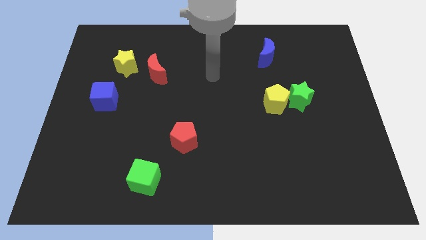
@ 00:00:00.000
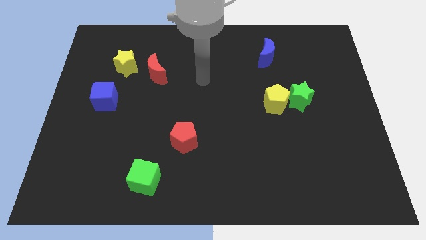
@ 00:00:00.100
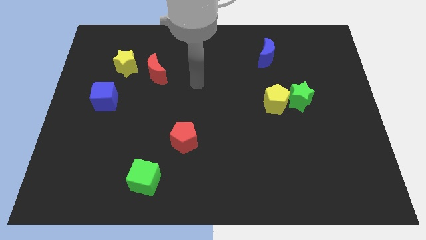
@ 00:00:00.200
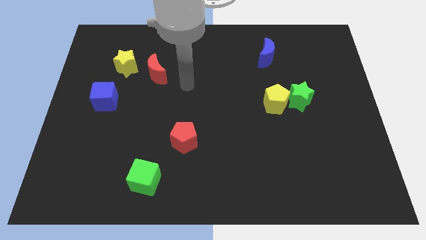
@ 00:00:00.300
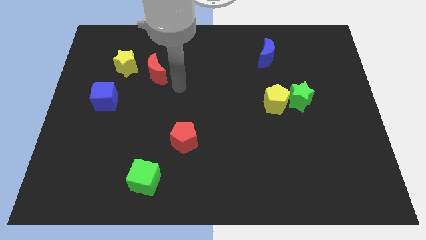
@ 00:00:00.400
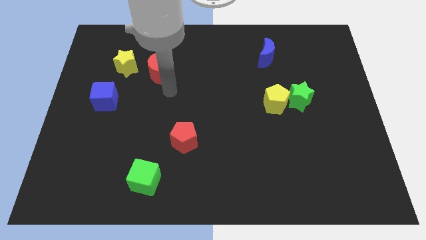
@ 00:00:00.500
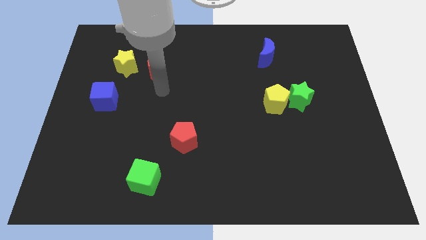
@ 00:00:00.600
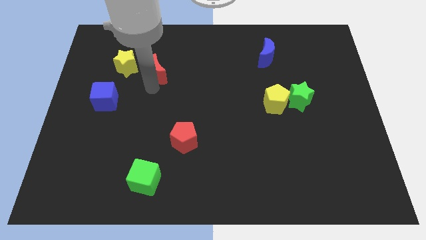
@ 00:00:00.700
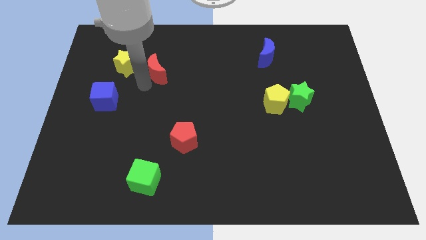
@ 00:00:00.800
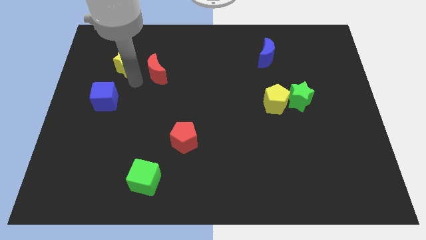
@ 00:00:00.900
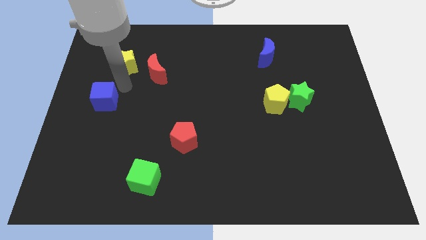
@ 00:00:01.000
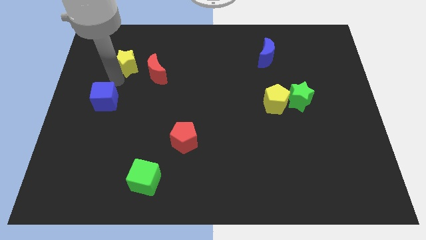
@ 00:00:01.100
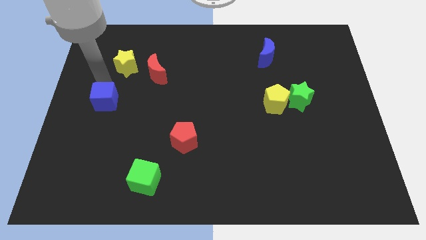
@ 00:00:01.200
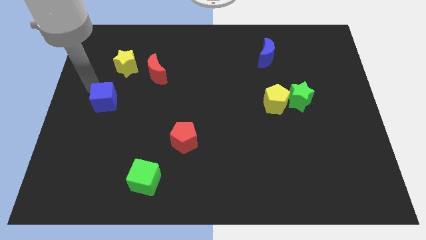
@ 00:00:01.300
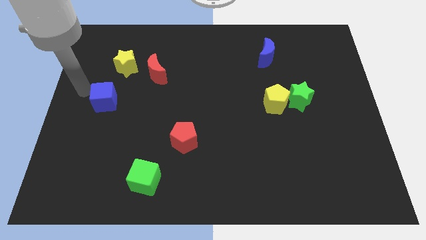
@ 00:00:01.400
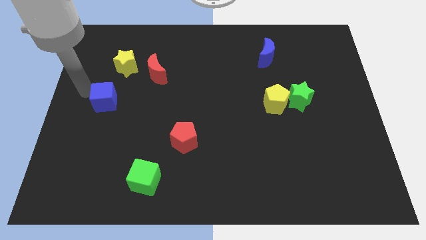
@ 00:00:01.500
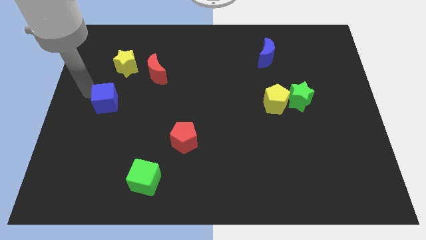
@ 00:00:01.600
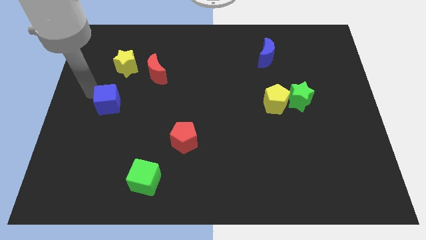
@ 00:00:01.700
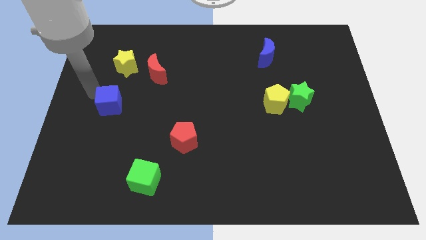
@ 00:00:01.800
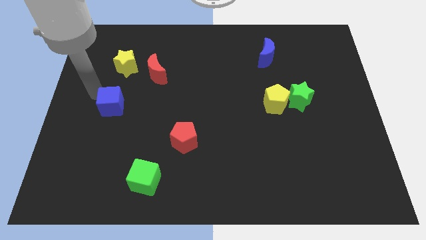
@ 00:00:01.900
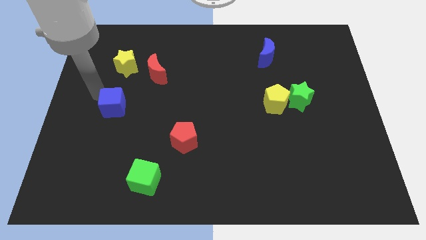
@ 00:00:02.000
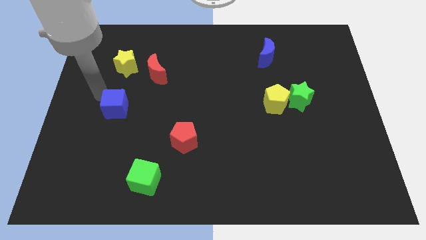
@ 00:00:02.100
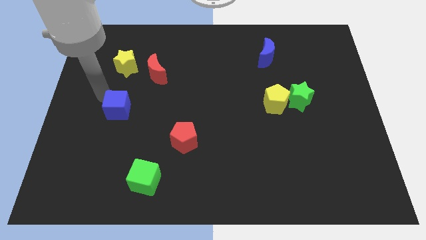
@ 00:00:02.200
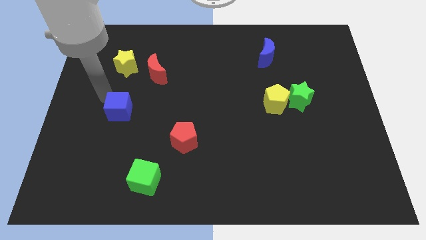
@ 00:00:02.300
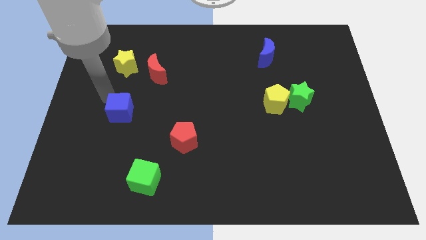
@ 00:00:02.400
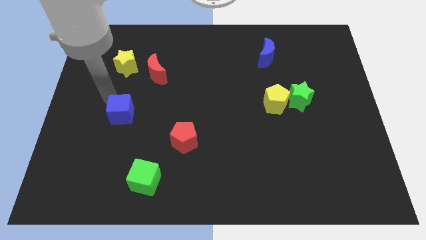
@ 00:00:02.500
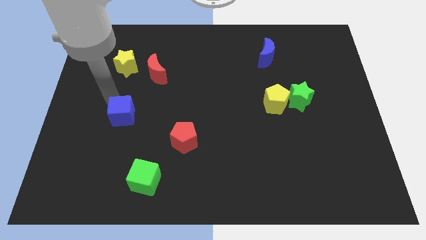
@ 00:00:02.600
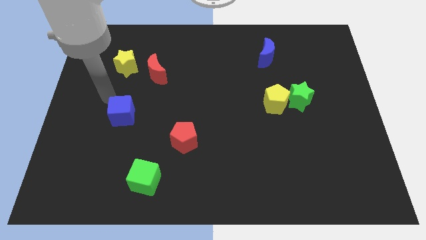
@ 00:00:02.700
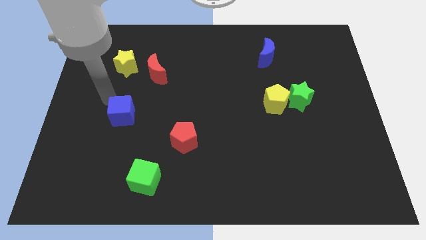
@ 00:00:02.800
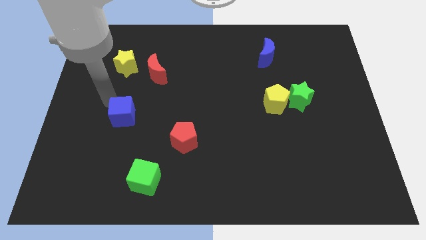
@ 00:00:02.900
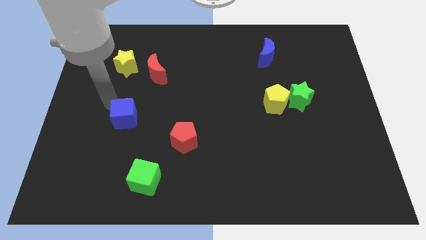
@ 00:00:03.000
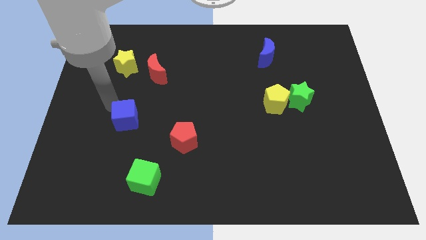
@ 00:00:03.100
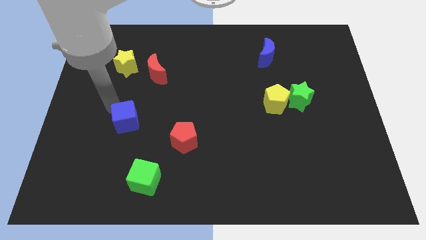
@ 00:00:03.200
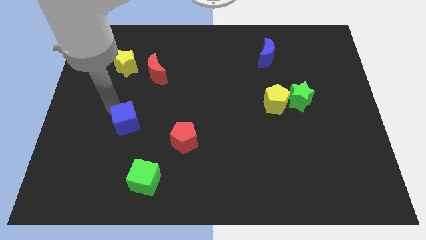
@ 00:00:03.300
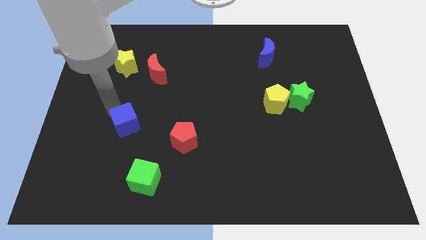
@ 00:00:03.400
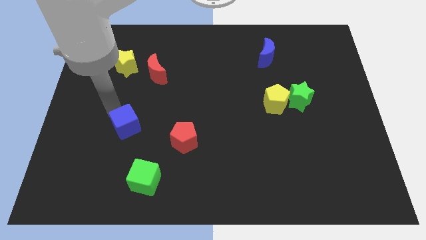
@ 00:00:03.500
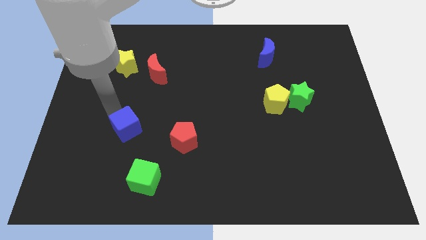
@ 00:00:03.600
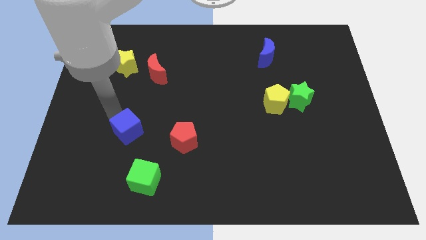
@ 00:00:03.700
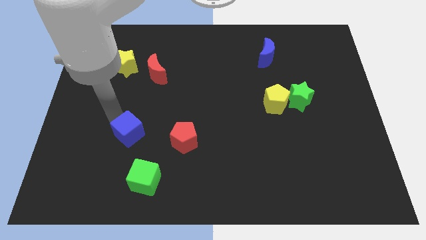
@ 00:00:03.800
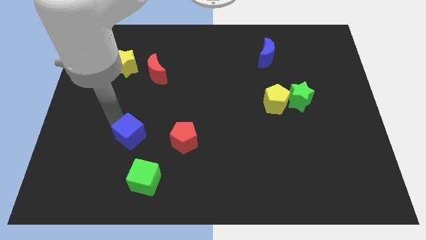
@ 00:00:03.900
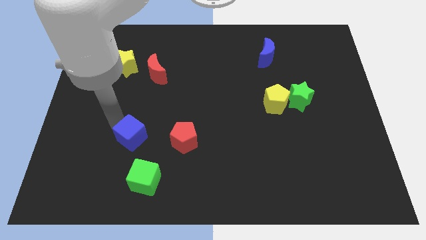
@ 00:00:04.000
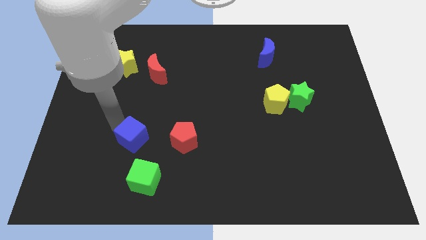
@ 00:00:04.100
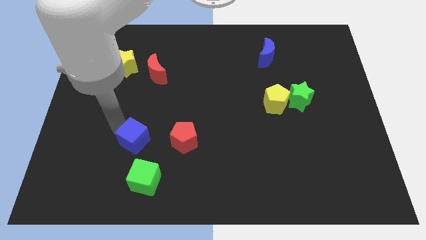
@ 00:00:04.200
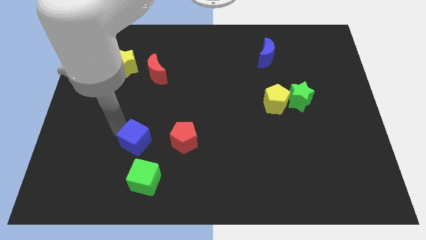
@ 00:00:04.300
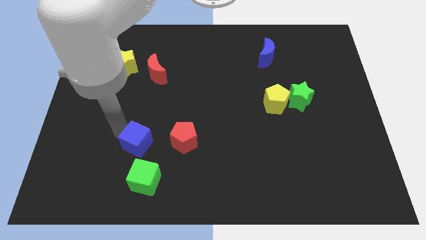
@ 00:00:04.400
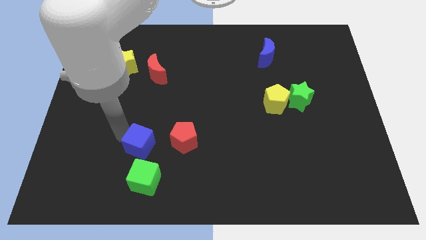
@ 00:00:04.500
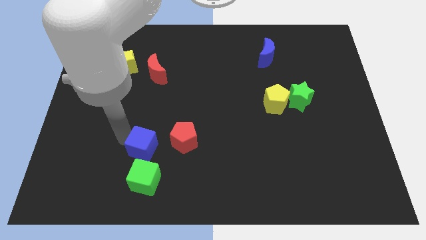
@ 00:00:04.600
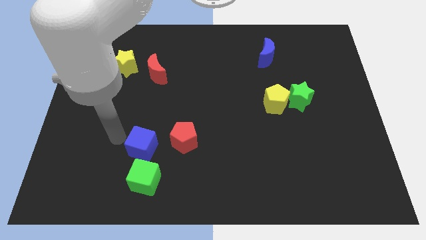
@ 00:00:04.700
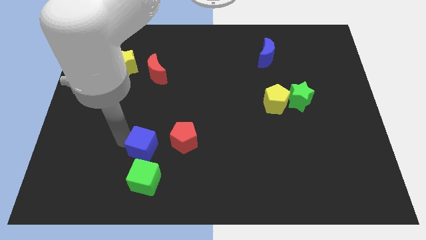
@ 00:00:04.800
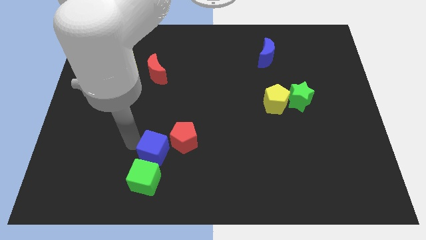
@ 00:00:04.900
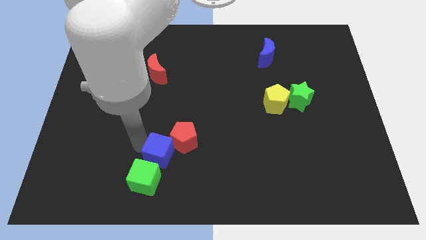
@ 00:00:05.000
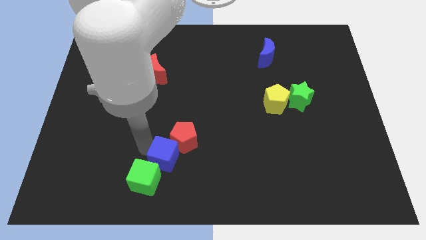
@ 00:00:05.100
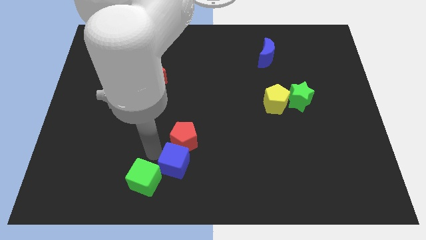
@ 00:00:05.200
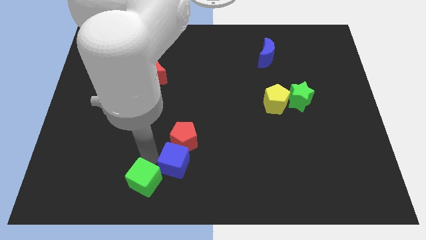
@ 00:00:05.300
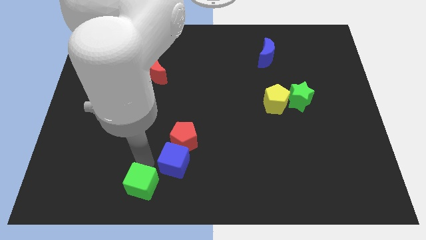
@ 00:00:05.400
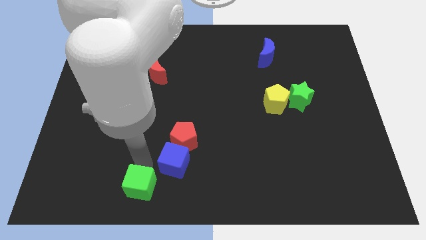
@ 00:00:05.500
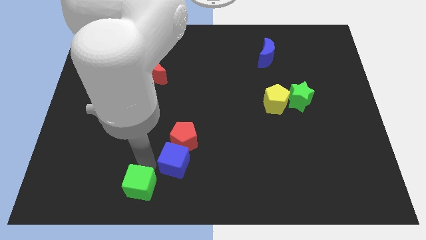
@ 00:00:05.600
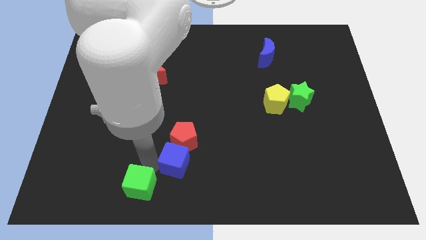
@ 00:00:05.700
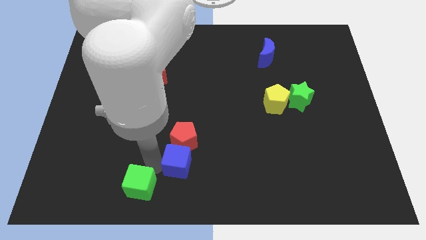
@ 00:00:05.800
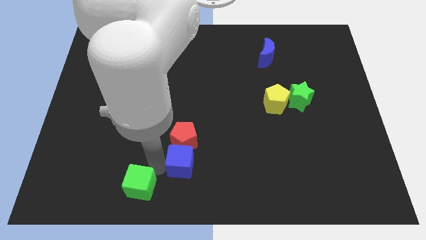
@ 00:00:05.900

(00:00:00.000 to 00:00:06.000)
slide the blue cube diagonally down and to the right of the red pentagon

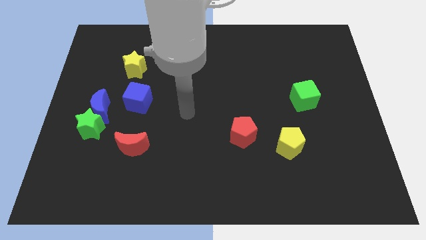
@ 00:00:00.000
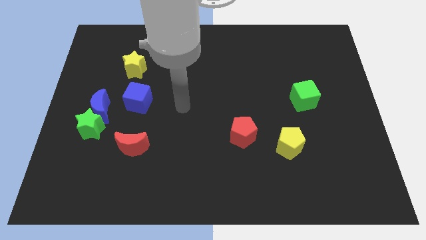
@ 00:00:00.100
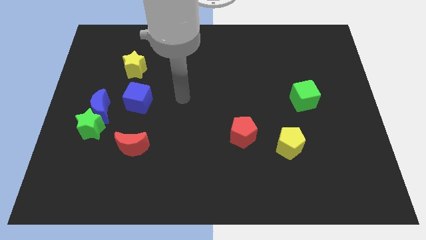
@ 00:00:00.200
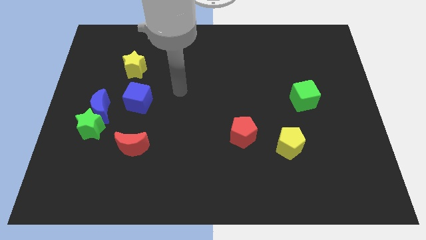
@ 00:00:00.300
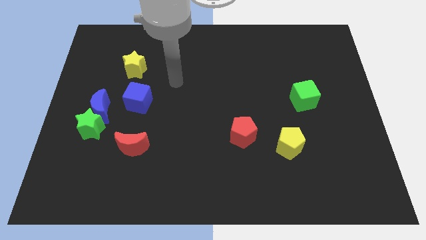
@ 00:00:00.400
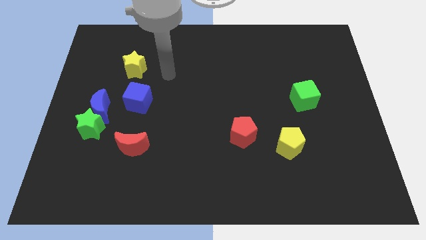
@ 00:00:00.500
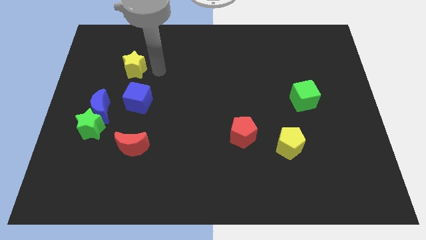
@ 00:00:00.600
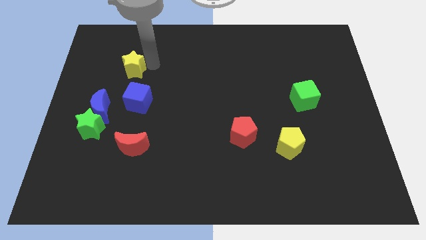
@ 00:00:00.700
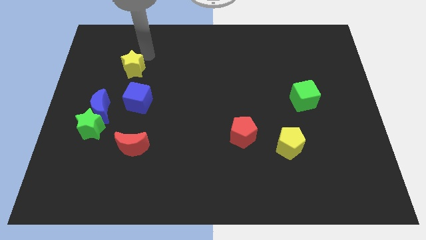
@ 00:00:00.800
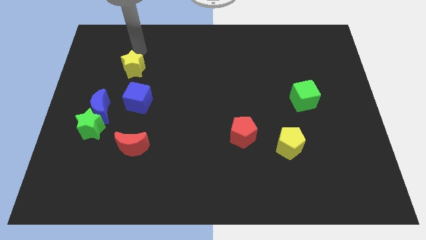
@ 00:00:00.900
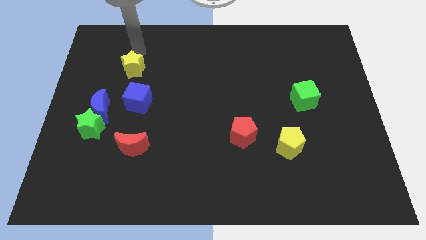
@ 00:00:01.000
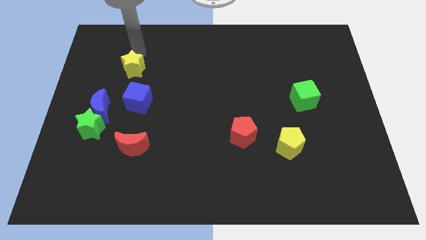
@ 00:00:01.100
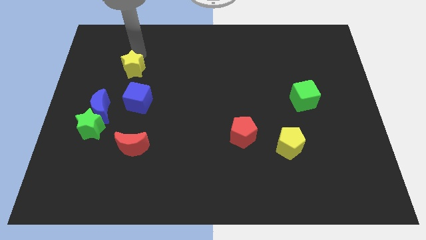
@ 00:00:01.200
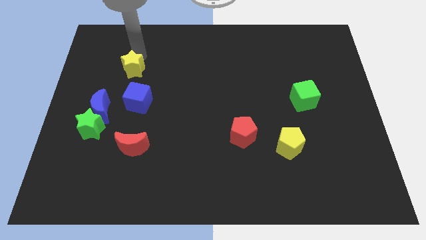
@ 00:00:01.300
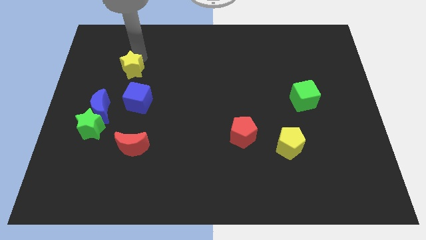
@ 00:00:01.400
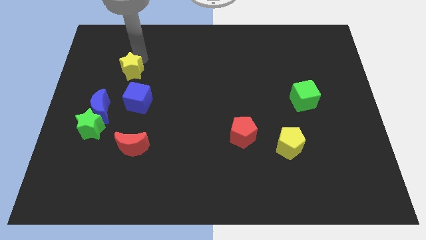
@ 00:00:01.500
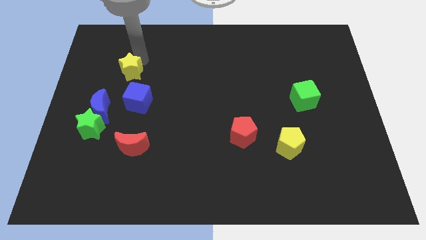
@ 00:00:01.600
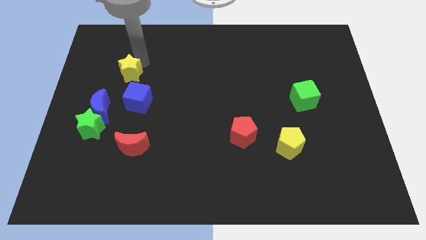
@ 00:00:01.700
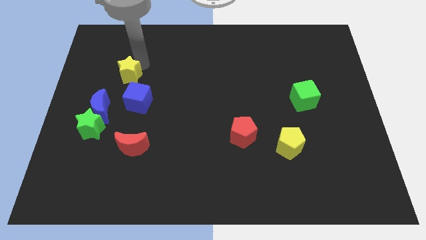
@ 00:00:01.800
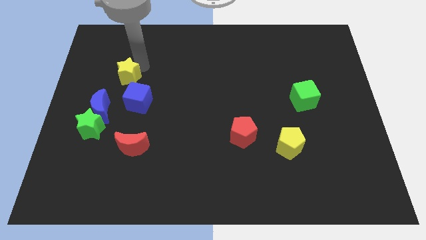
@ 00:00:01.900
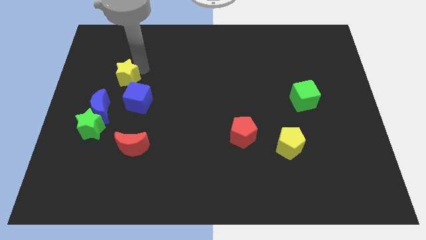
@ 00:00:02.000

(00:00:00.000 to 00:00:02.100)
slide the yellow star to the top right of the blue moon
